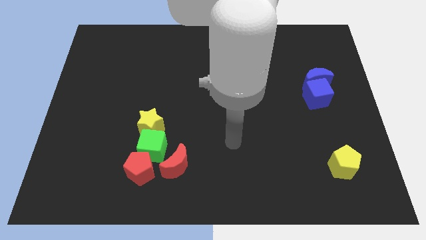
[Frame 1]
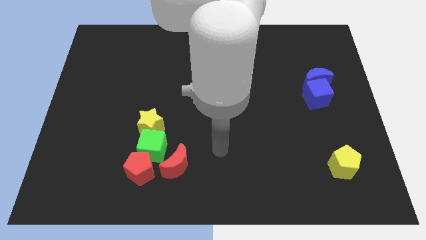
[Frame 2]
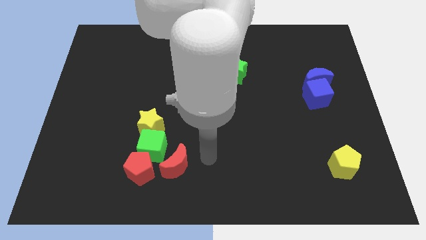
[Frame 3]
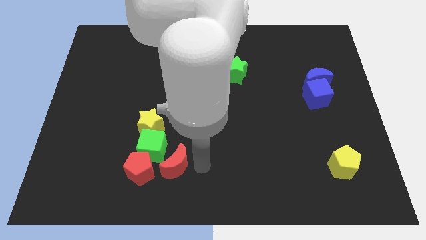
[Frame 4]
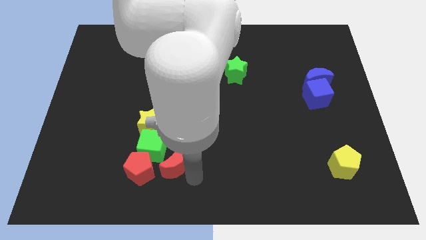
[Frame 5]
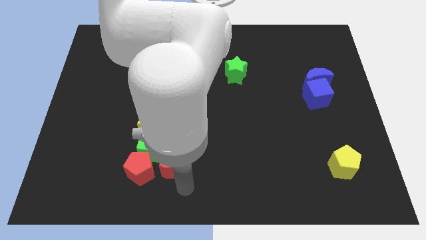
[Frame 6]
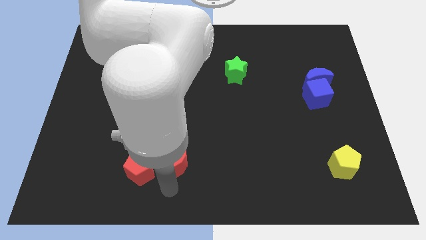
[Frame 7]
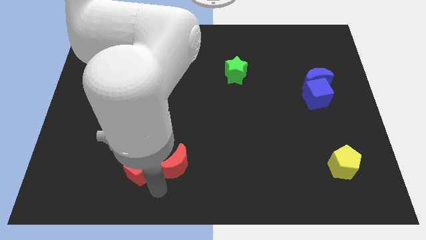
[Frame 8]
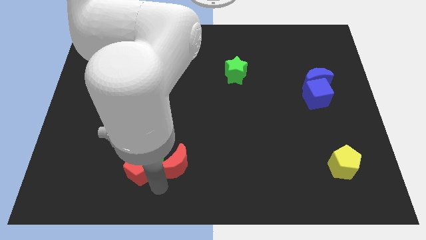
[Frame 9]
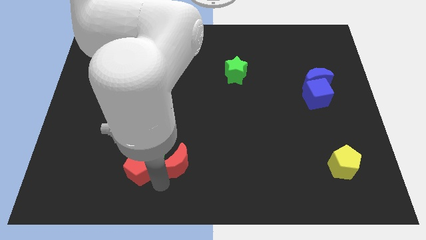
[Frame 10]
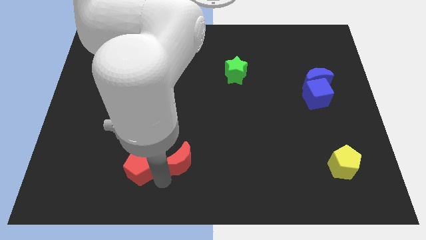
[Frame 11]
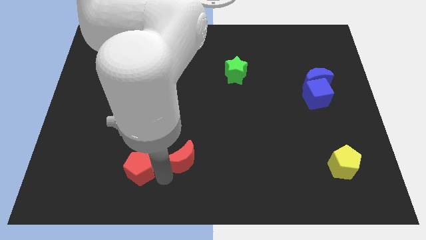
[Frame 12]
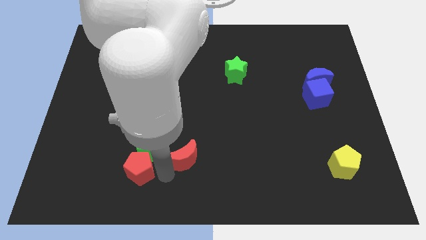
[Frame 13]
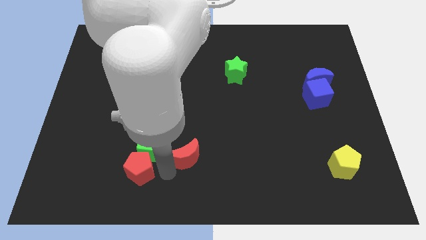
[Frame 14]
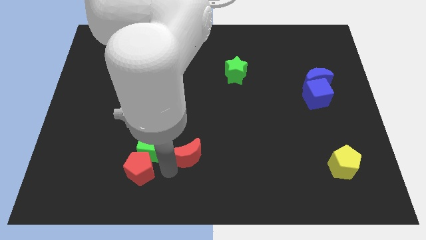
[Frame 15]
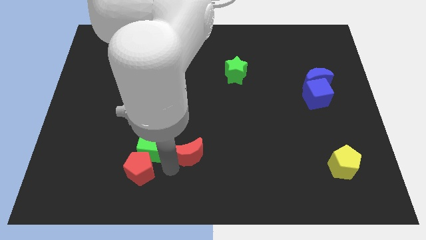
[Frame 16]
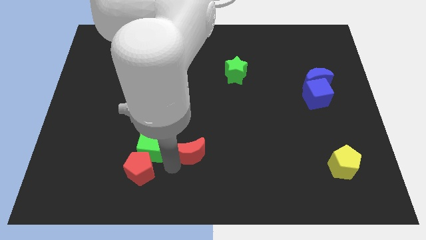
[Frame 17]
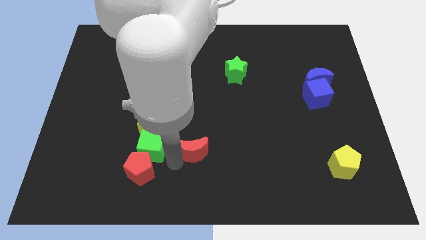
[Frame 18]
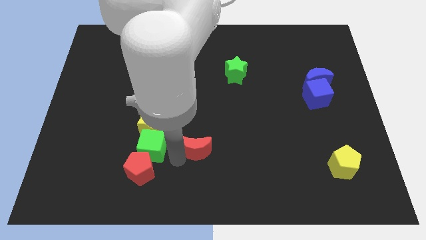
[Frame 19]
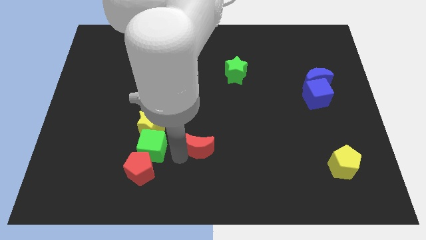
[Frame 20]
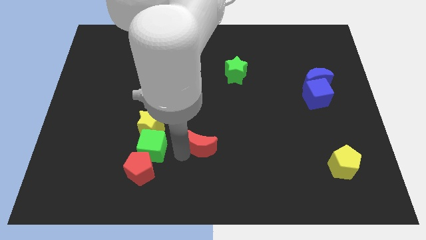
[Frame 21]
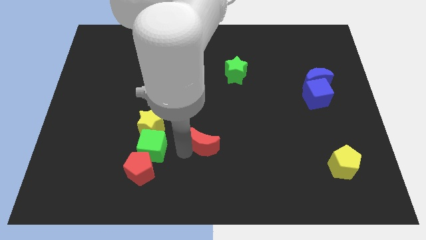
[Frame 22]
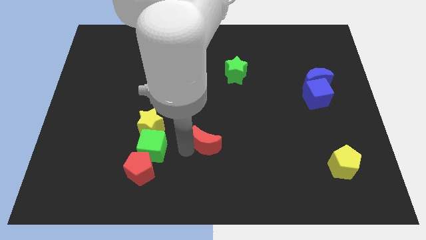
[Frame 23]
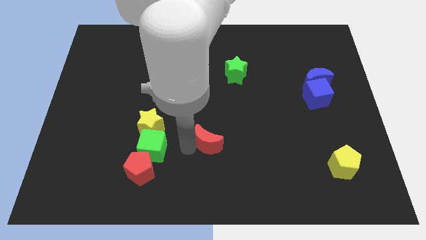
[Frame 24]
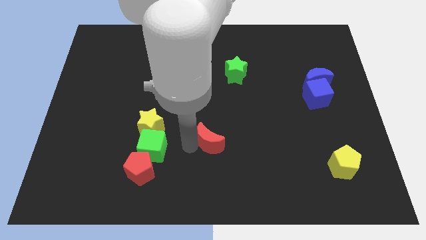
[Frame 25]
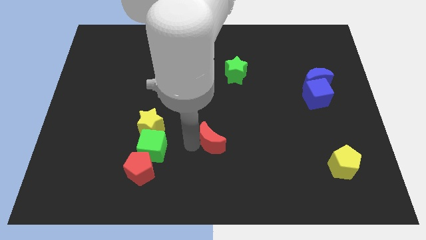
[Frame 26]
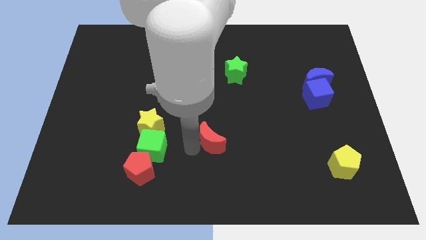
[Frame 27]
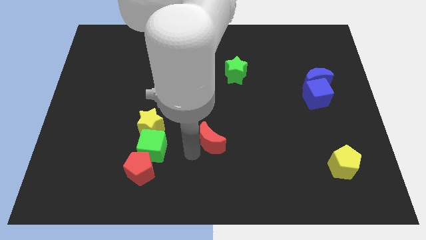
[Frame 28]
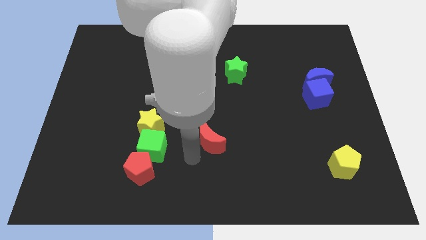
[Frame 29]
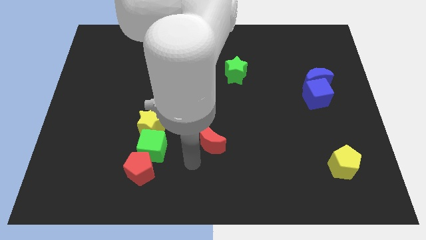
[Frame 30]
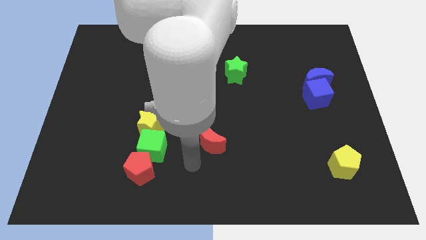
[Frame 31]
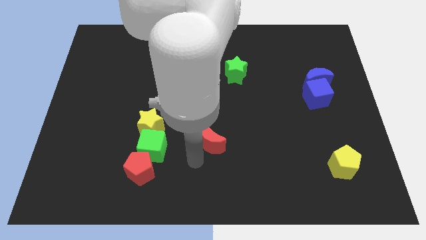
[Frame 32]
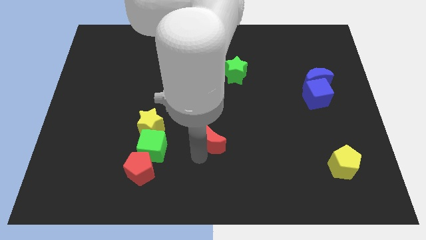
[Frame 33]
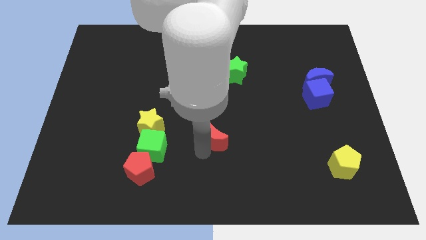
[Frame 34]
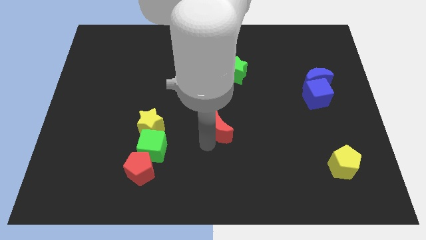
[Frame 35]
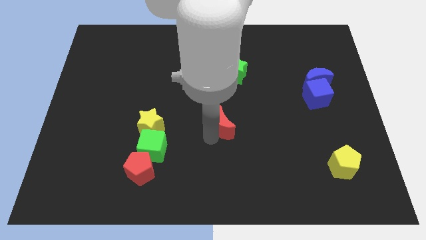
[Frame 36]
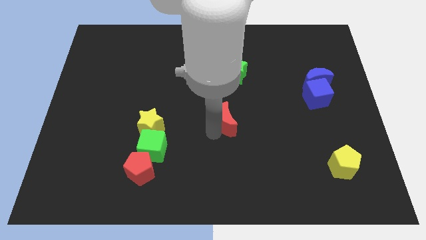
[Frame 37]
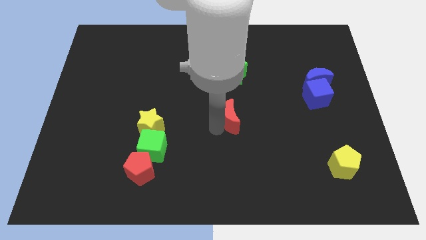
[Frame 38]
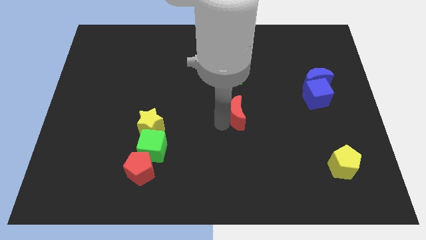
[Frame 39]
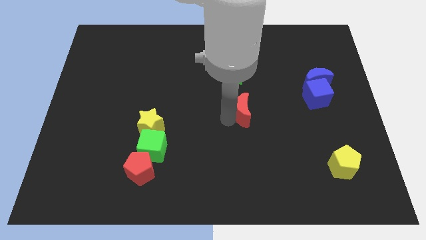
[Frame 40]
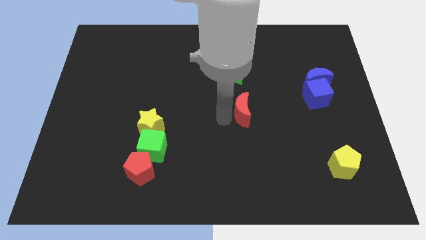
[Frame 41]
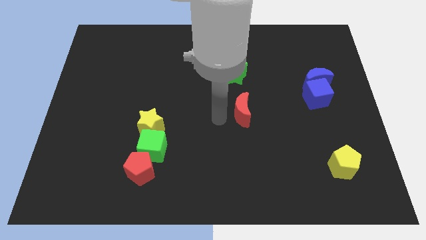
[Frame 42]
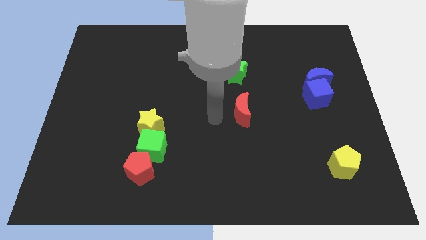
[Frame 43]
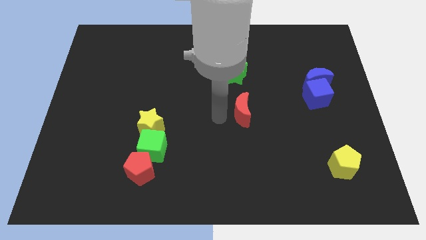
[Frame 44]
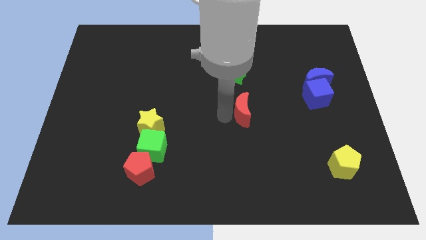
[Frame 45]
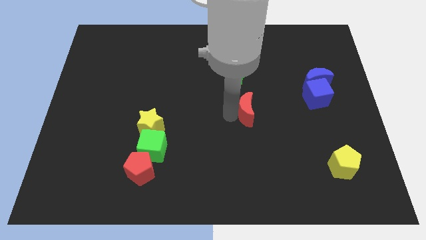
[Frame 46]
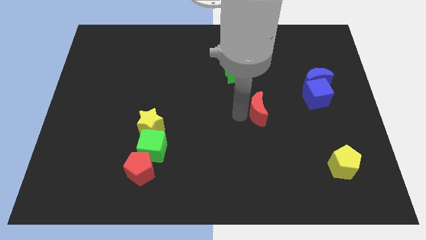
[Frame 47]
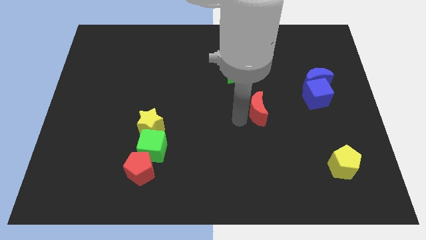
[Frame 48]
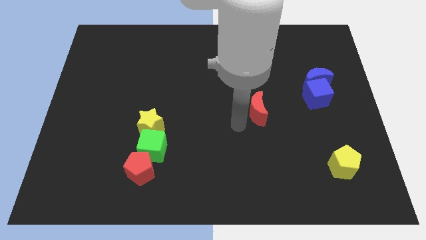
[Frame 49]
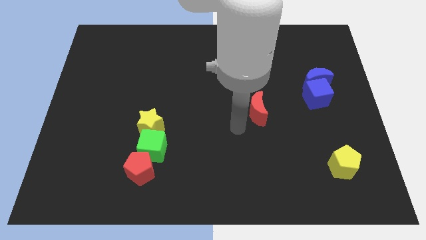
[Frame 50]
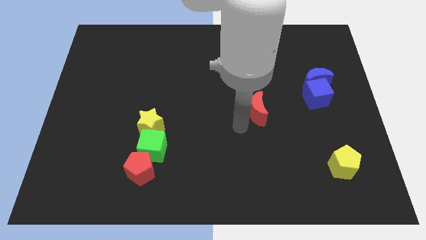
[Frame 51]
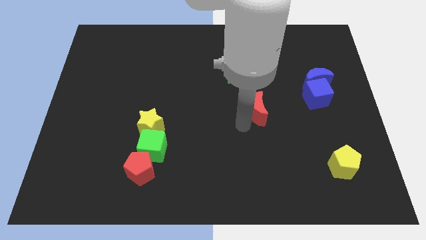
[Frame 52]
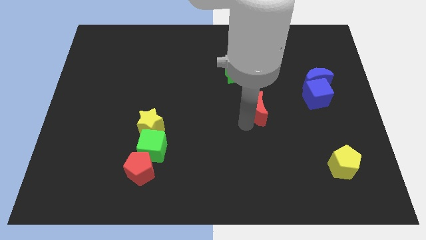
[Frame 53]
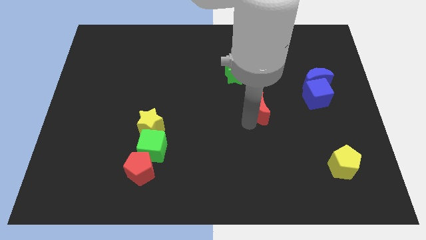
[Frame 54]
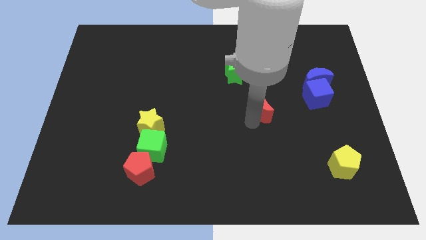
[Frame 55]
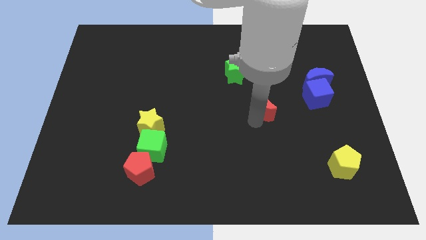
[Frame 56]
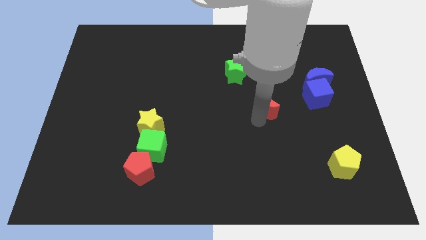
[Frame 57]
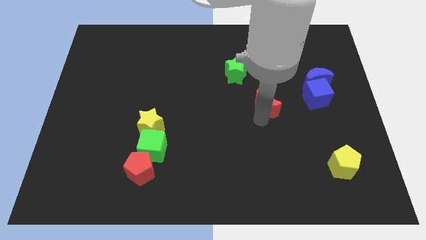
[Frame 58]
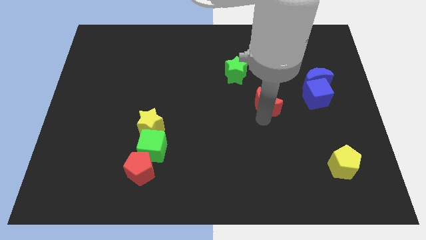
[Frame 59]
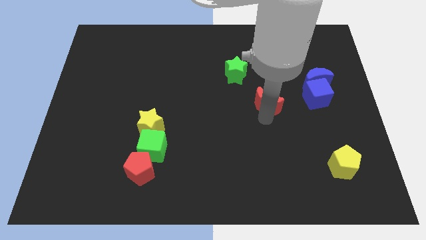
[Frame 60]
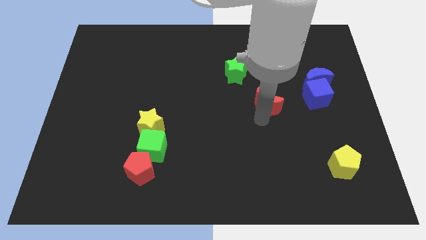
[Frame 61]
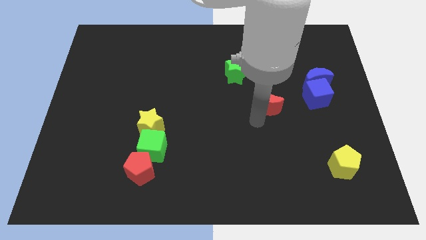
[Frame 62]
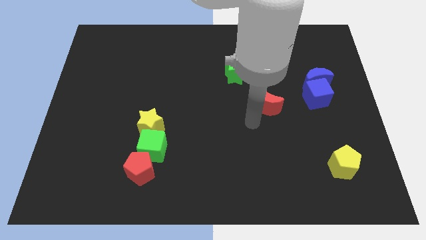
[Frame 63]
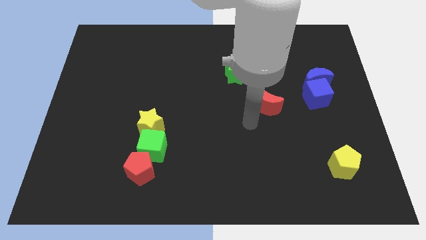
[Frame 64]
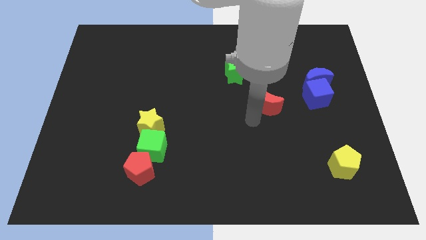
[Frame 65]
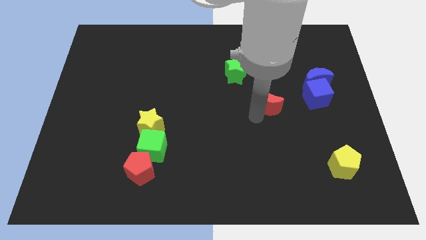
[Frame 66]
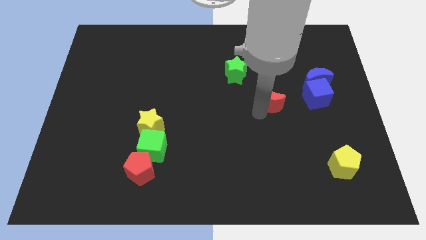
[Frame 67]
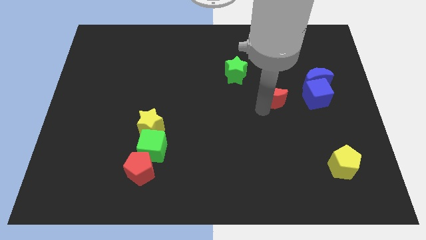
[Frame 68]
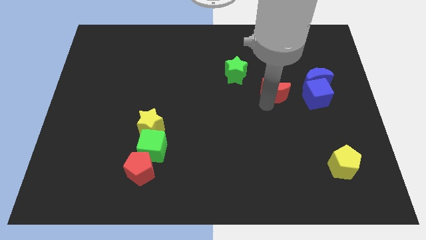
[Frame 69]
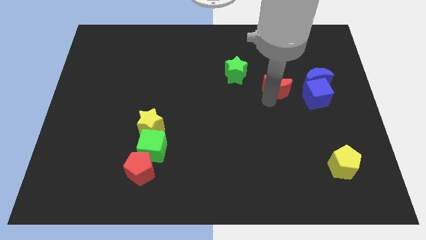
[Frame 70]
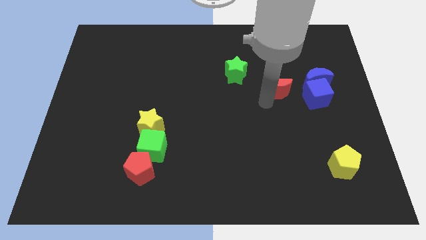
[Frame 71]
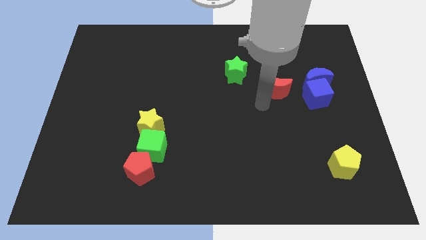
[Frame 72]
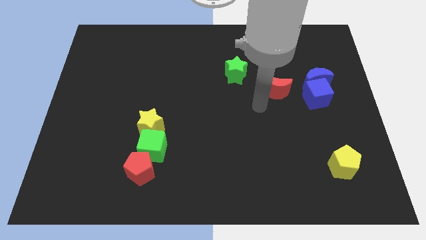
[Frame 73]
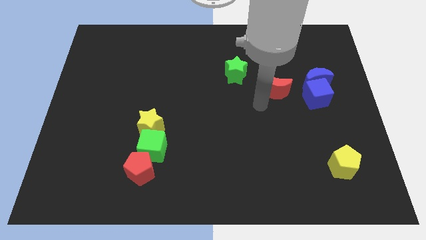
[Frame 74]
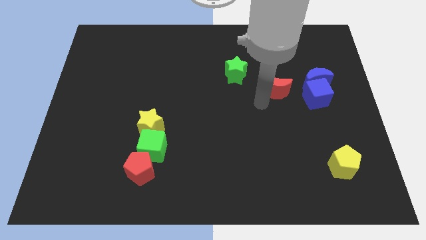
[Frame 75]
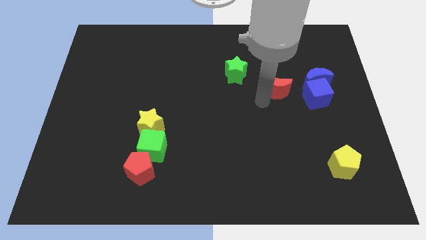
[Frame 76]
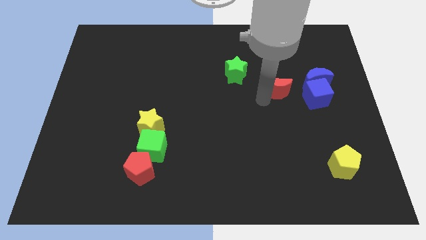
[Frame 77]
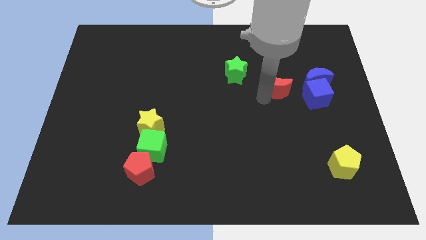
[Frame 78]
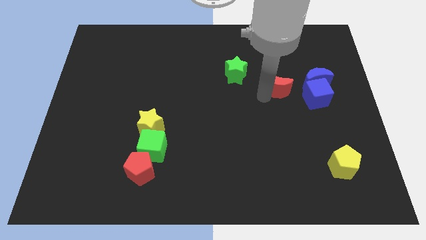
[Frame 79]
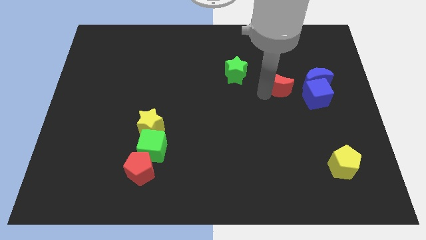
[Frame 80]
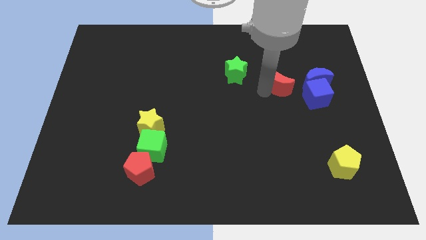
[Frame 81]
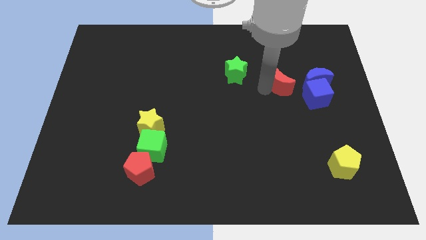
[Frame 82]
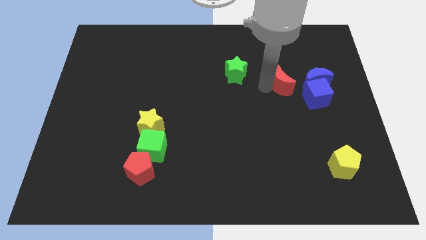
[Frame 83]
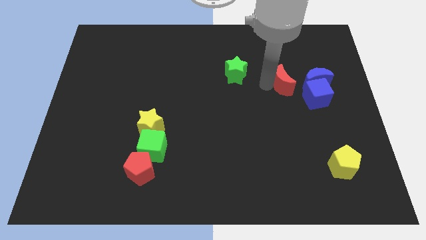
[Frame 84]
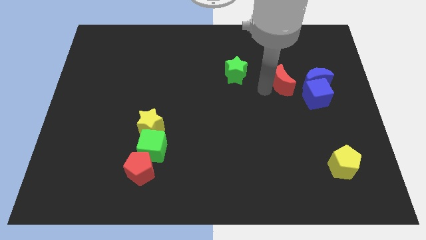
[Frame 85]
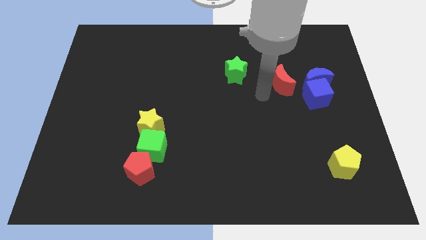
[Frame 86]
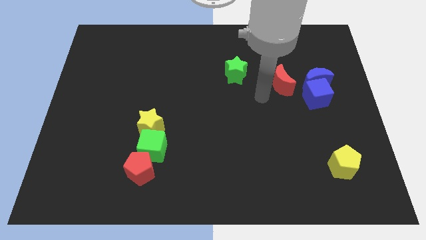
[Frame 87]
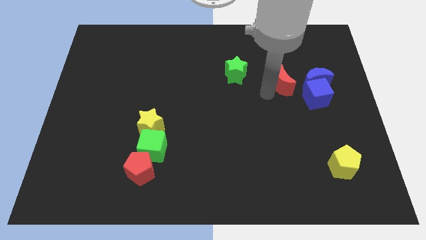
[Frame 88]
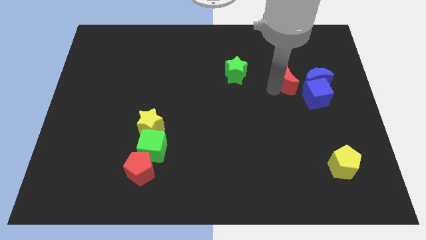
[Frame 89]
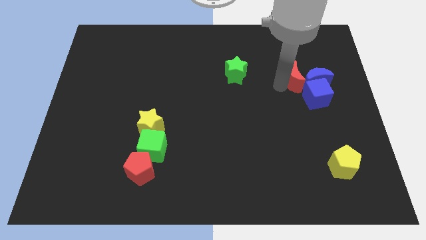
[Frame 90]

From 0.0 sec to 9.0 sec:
move the red moon above the blue cube
